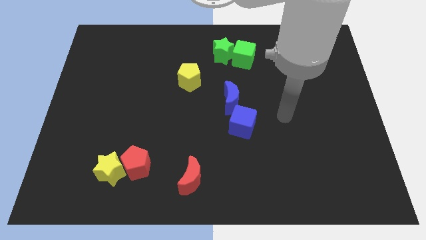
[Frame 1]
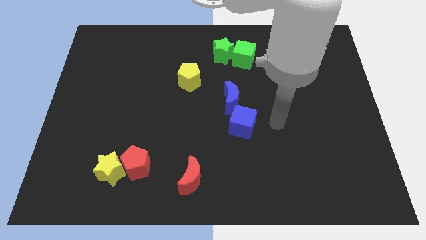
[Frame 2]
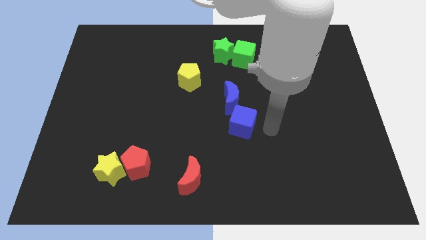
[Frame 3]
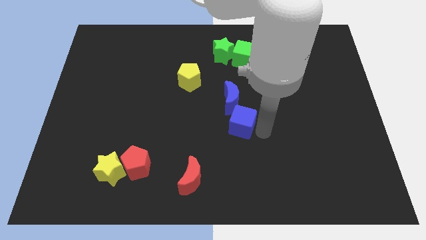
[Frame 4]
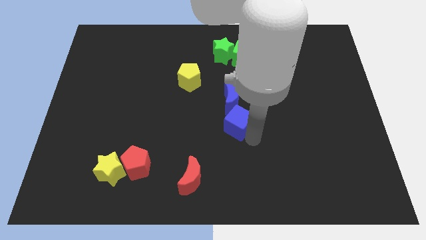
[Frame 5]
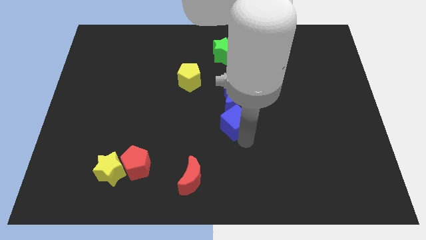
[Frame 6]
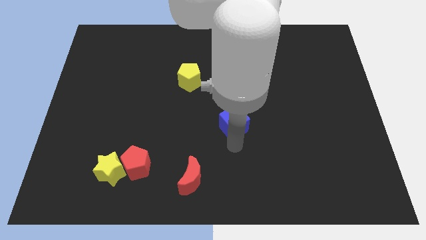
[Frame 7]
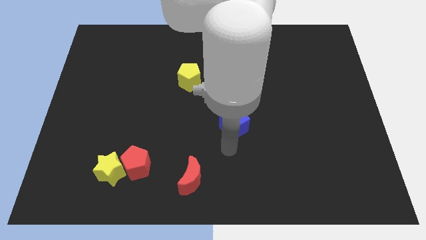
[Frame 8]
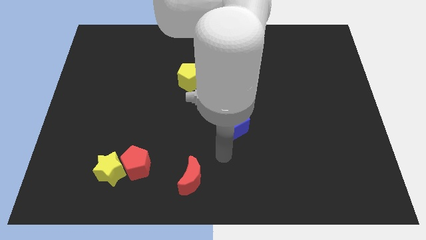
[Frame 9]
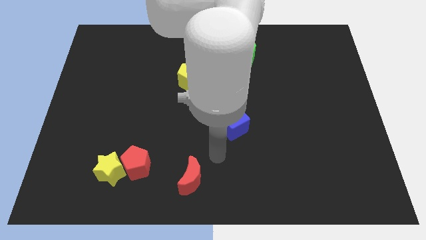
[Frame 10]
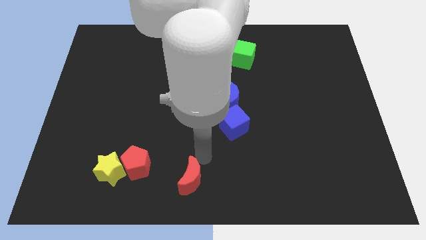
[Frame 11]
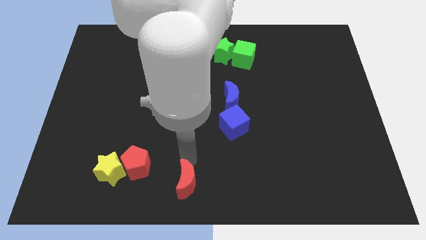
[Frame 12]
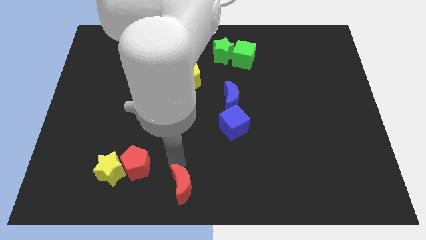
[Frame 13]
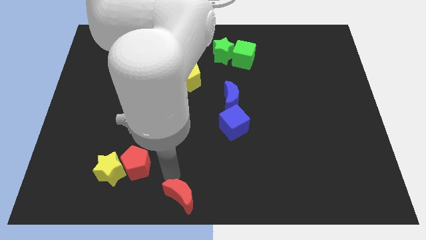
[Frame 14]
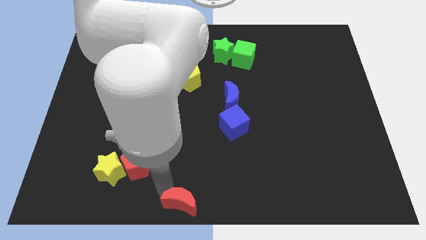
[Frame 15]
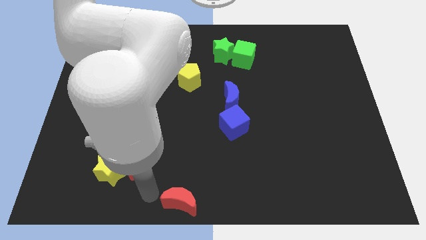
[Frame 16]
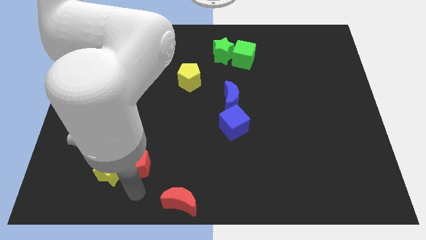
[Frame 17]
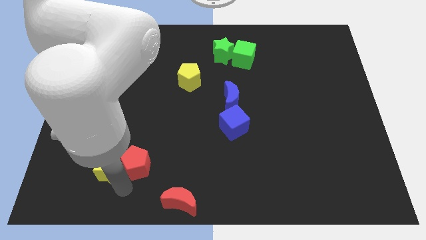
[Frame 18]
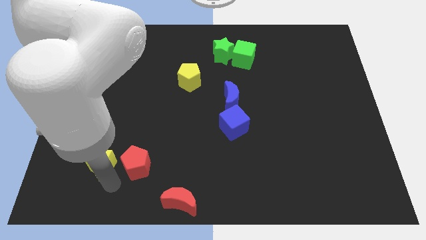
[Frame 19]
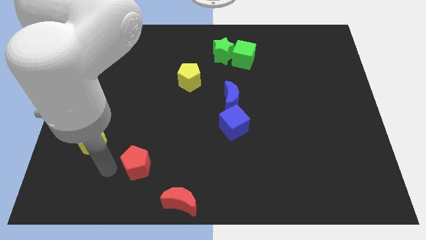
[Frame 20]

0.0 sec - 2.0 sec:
pull the red pentagon apart from the yellow star

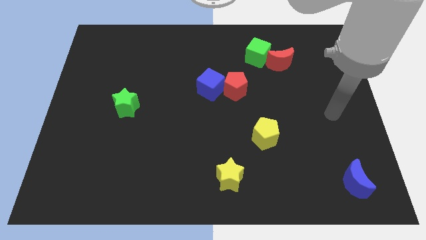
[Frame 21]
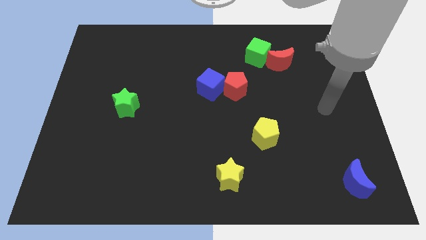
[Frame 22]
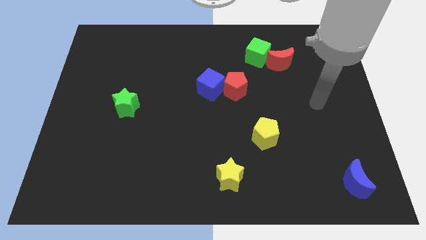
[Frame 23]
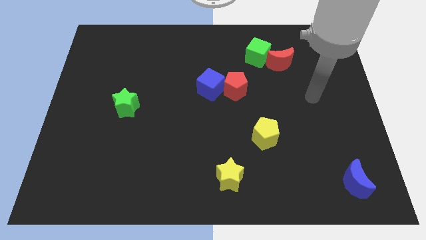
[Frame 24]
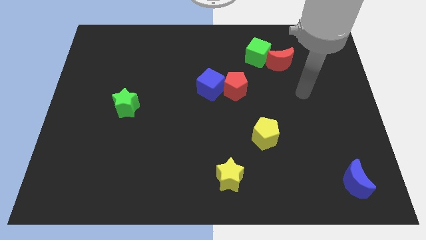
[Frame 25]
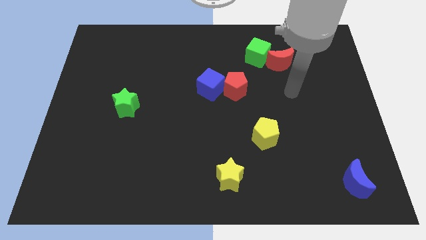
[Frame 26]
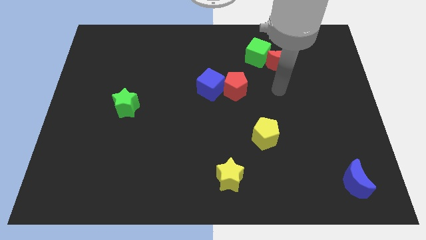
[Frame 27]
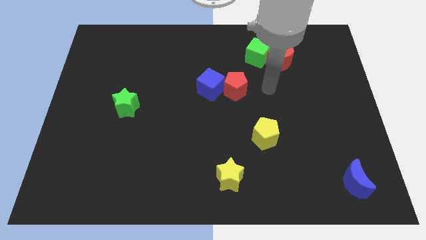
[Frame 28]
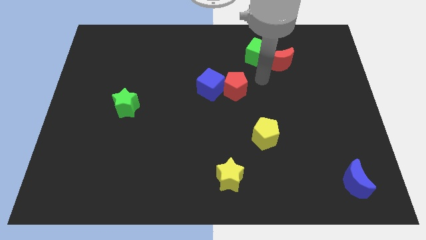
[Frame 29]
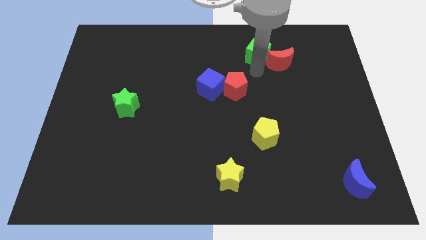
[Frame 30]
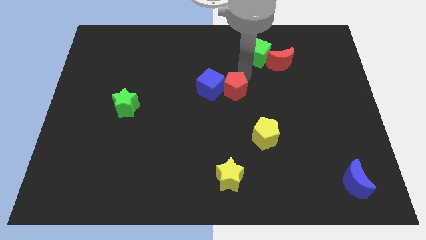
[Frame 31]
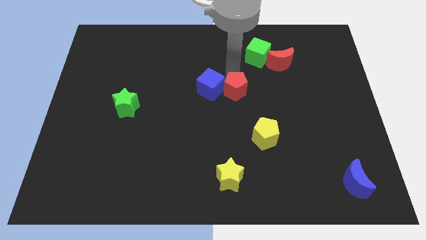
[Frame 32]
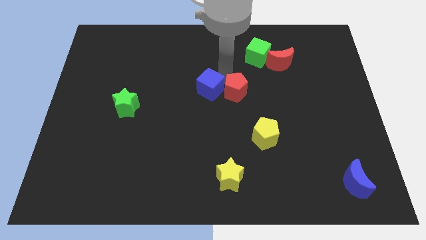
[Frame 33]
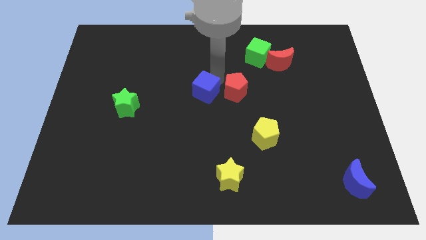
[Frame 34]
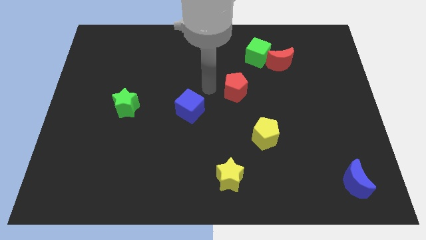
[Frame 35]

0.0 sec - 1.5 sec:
pull the red pentagon apart from the blue cube

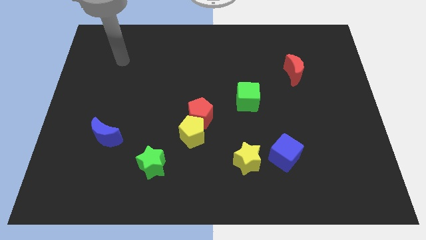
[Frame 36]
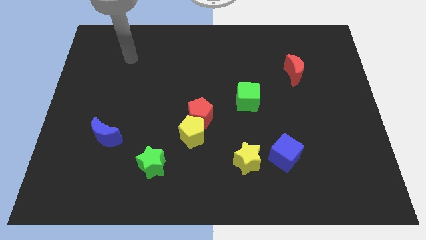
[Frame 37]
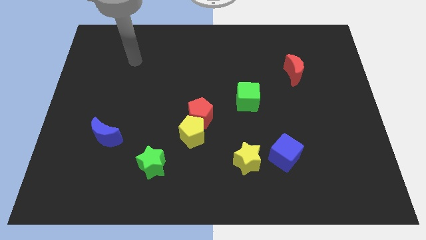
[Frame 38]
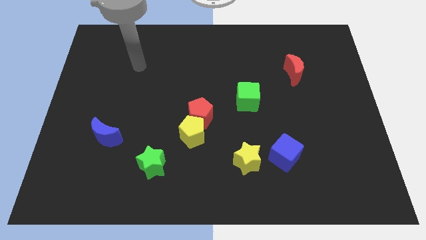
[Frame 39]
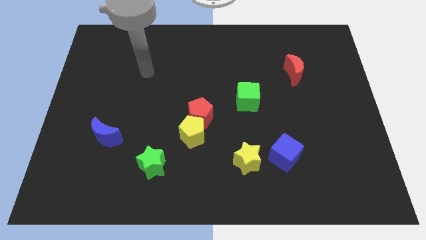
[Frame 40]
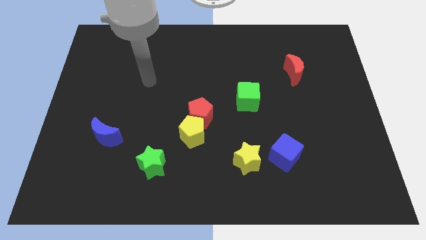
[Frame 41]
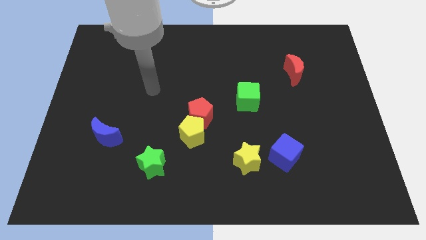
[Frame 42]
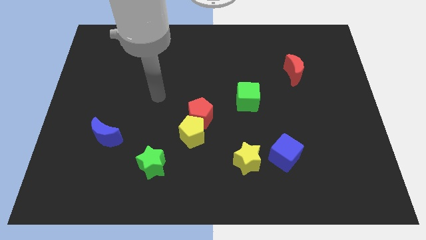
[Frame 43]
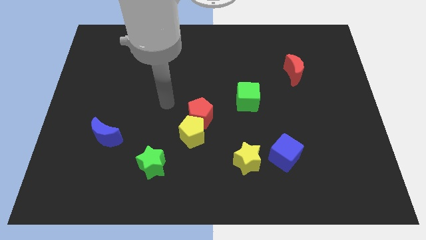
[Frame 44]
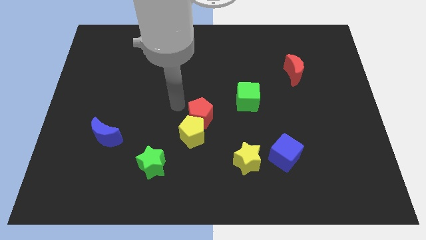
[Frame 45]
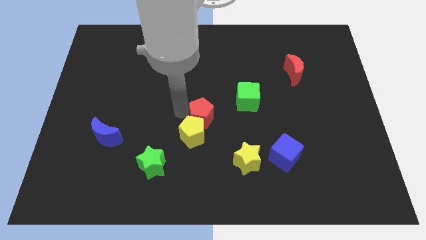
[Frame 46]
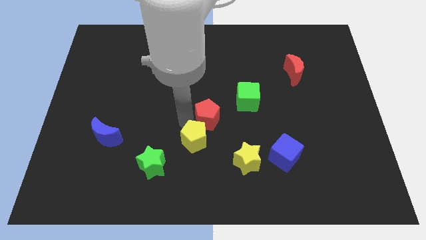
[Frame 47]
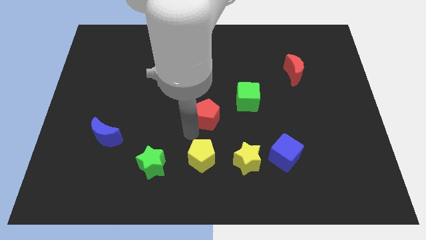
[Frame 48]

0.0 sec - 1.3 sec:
pull the red pentagon apart from the yellow pentagon

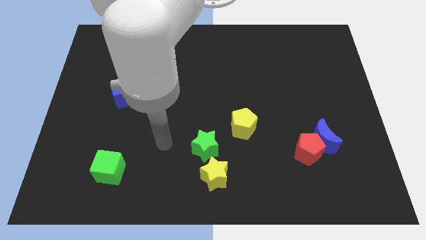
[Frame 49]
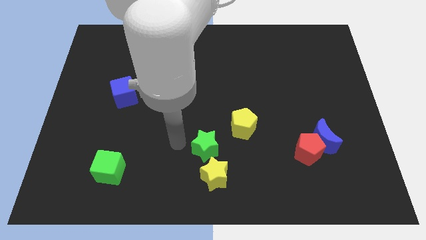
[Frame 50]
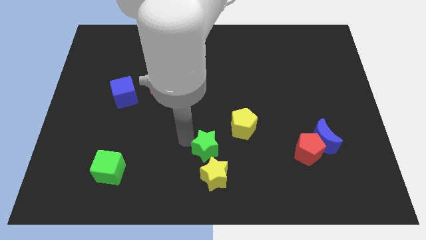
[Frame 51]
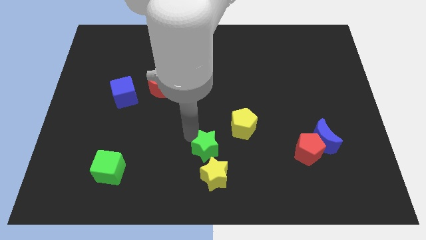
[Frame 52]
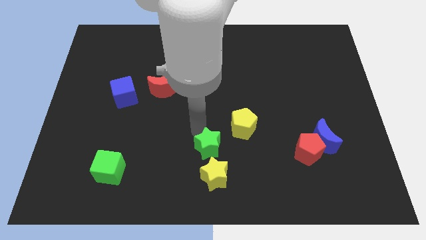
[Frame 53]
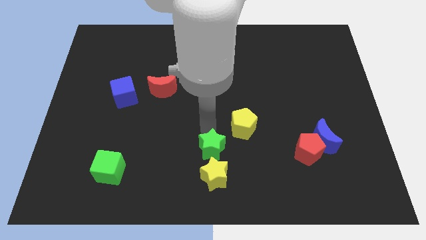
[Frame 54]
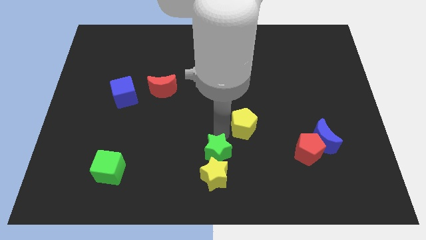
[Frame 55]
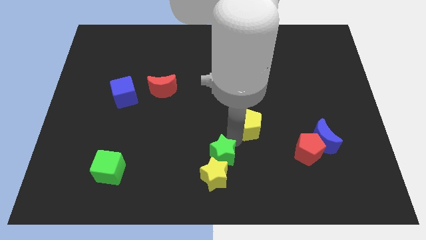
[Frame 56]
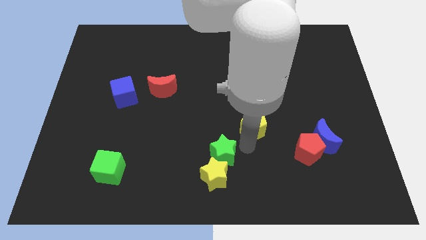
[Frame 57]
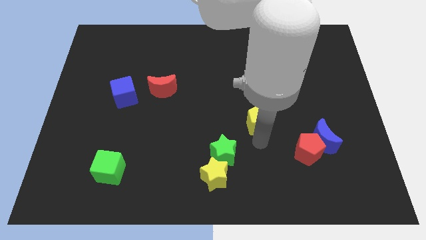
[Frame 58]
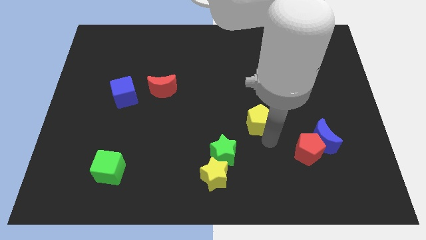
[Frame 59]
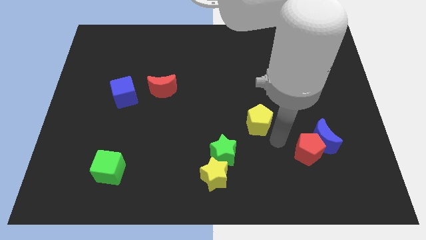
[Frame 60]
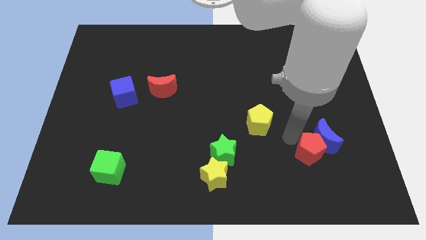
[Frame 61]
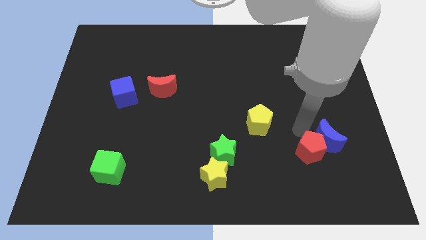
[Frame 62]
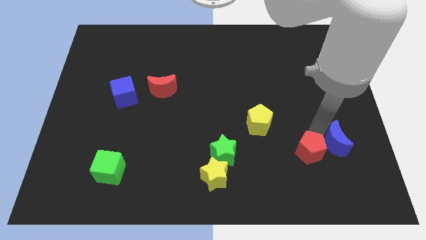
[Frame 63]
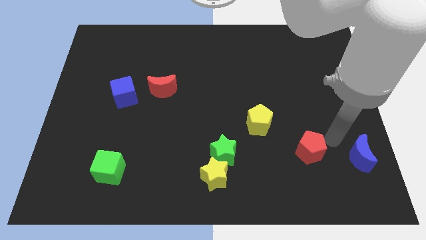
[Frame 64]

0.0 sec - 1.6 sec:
separate the red pentagon from the blue moon

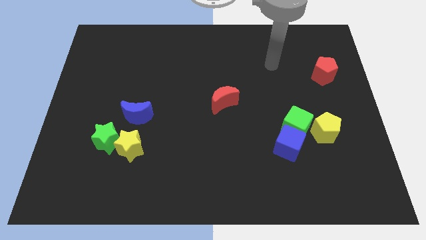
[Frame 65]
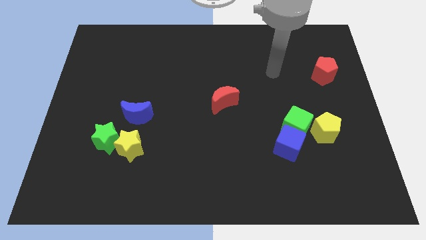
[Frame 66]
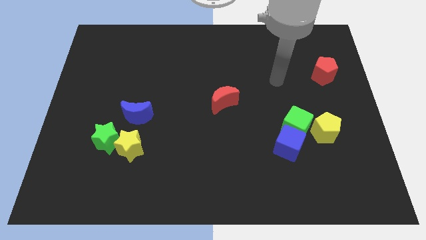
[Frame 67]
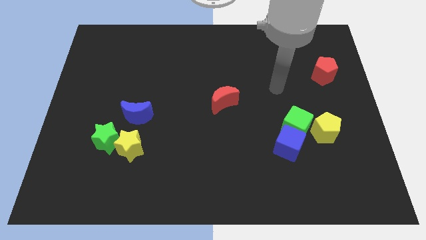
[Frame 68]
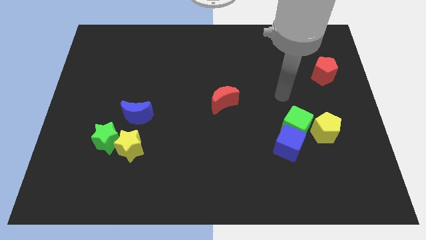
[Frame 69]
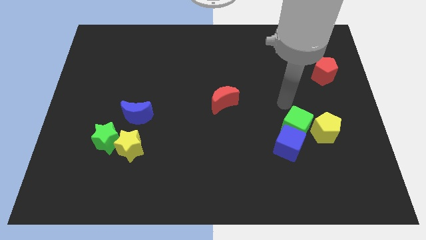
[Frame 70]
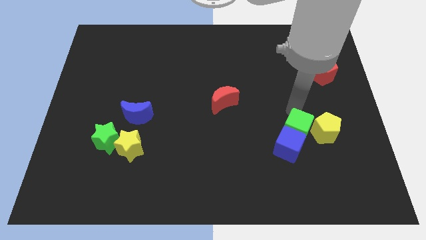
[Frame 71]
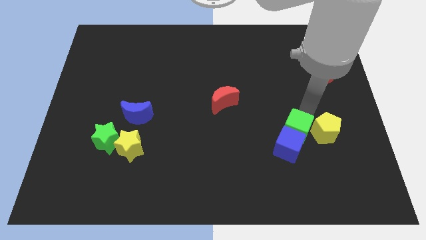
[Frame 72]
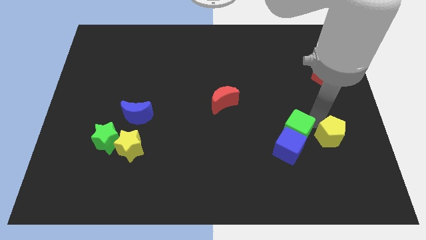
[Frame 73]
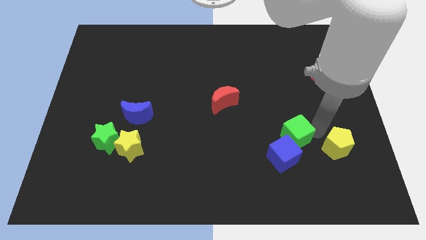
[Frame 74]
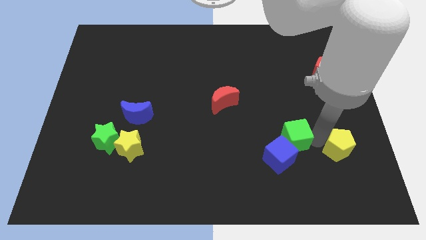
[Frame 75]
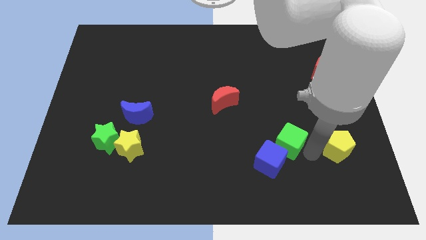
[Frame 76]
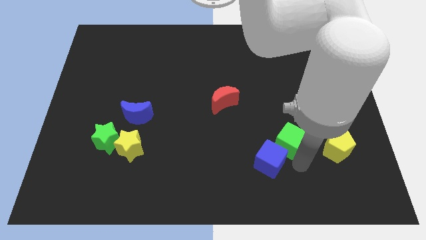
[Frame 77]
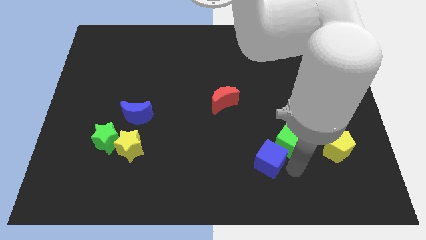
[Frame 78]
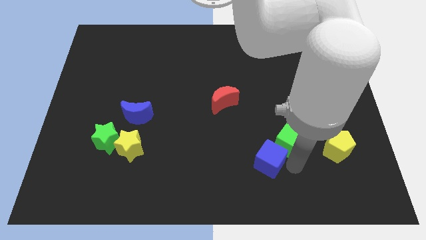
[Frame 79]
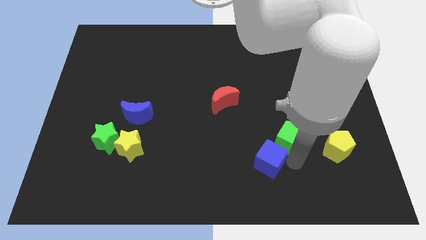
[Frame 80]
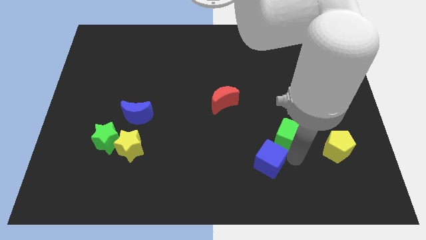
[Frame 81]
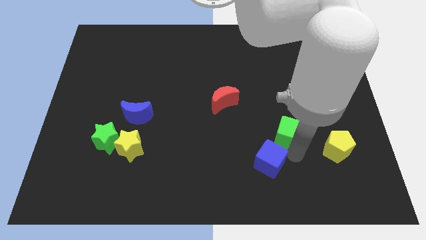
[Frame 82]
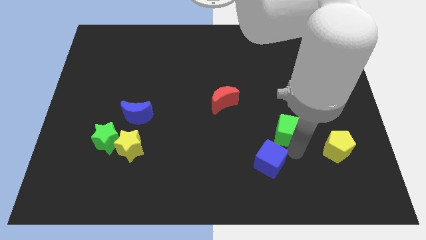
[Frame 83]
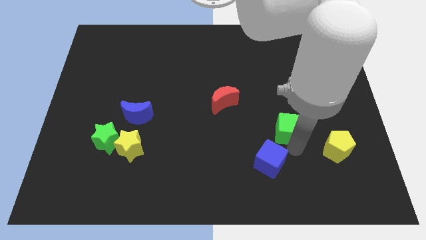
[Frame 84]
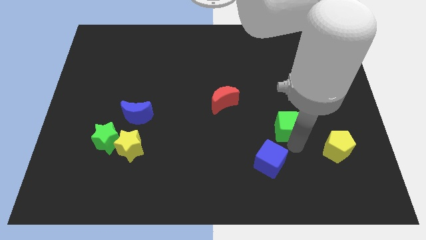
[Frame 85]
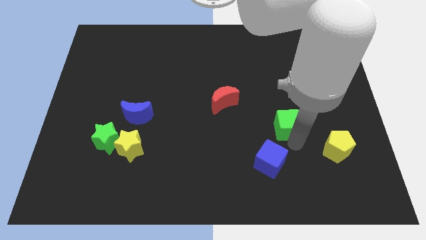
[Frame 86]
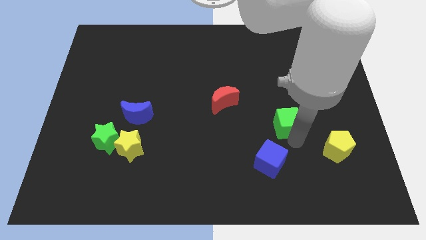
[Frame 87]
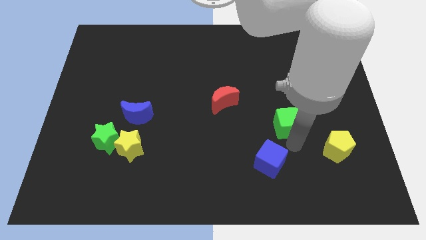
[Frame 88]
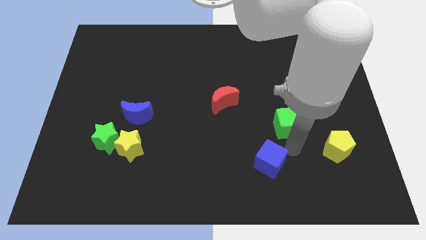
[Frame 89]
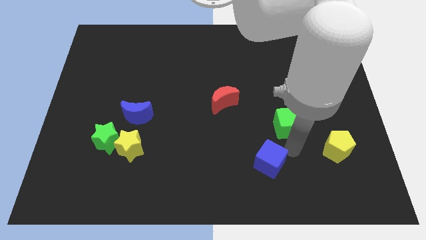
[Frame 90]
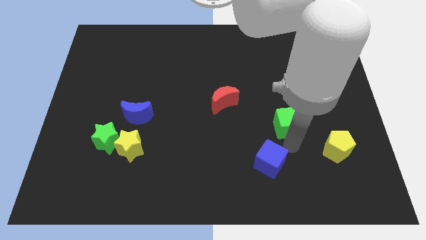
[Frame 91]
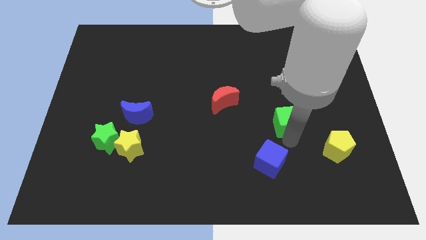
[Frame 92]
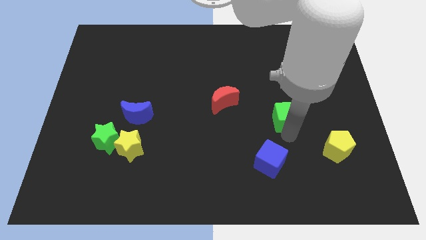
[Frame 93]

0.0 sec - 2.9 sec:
move the green cube away from the blue cube and yellow pentagon
